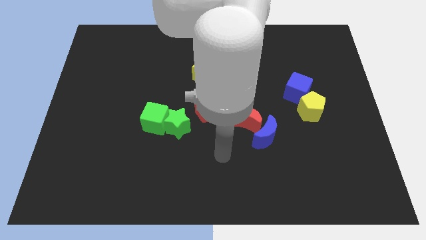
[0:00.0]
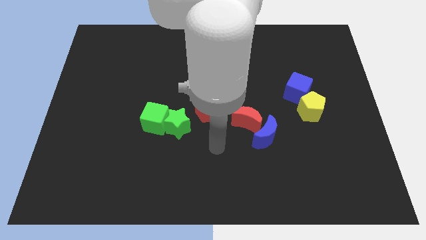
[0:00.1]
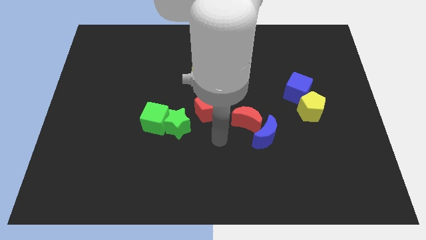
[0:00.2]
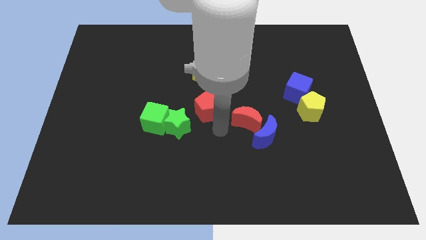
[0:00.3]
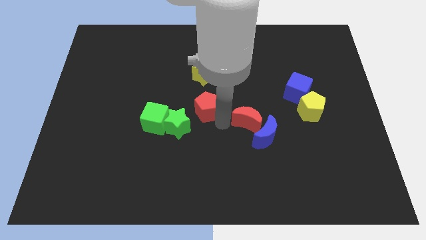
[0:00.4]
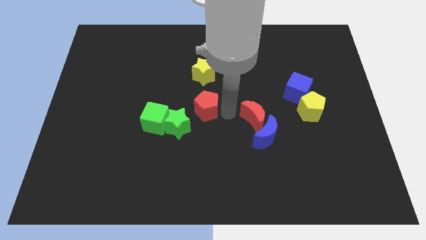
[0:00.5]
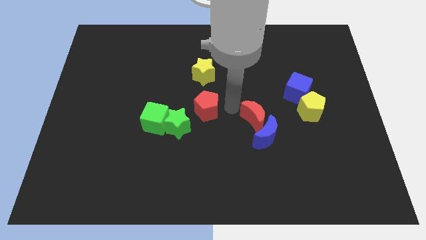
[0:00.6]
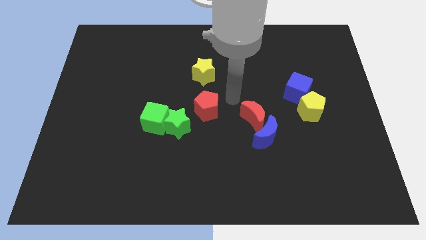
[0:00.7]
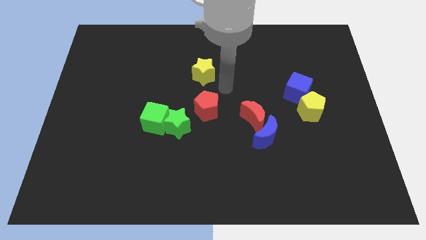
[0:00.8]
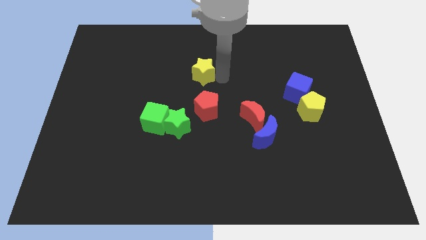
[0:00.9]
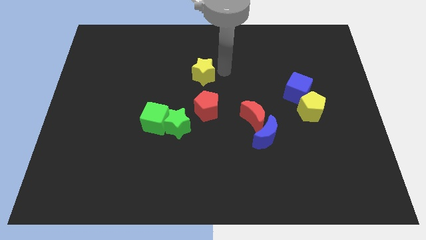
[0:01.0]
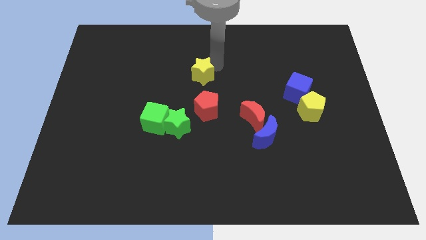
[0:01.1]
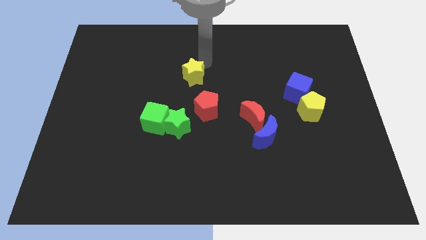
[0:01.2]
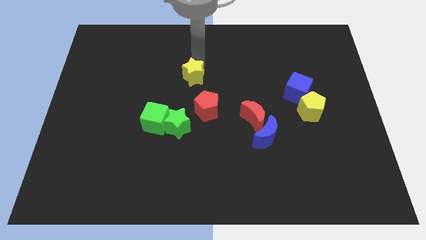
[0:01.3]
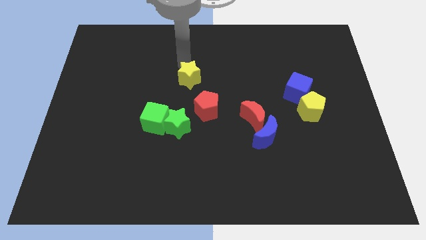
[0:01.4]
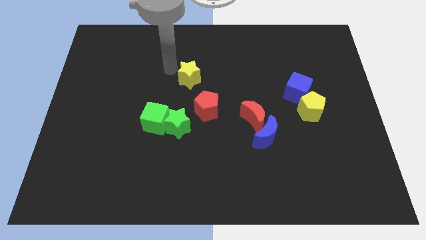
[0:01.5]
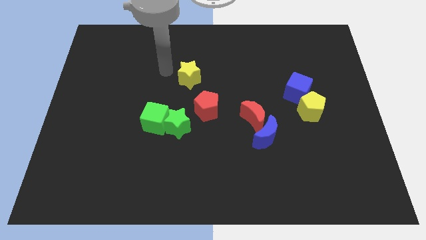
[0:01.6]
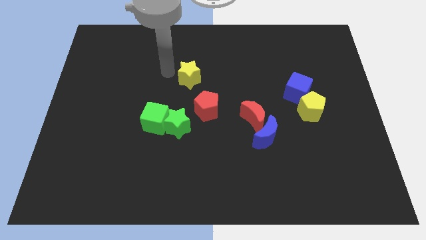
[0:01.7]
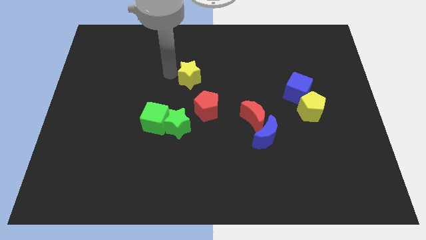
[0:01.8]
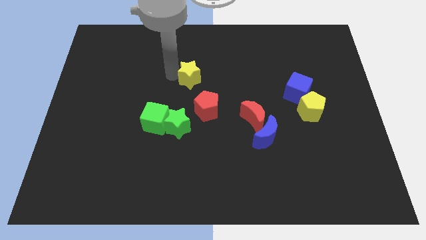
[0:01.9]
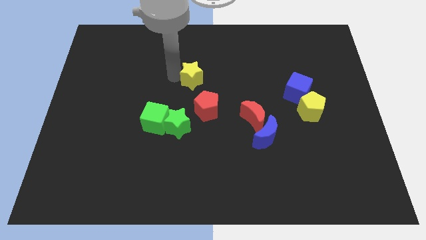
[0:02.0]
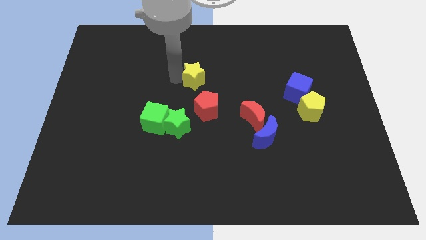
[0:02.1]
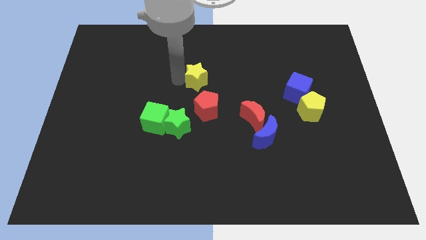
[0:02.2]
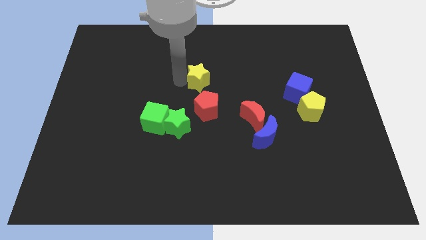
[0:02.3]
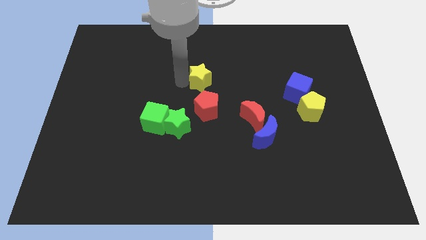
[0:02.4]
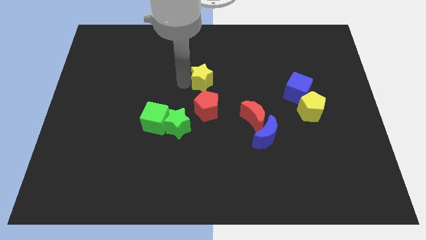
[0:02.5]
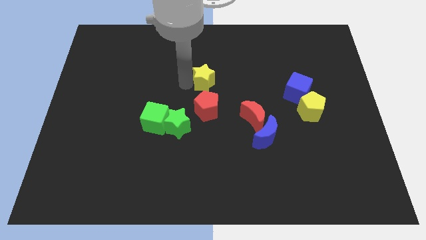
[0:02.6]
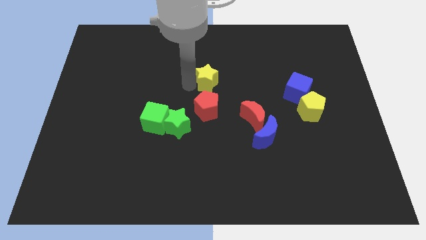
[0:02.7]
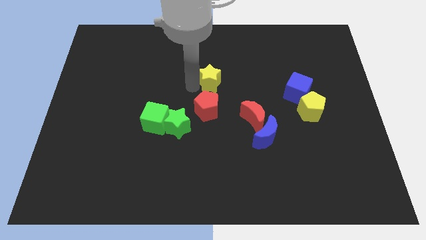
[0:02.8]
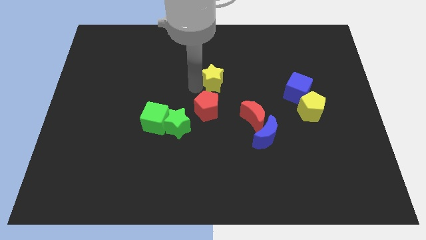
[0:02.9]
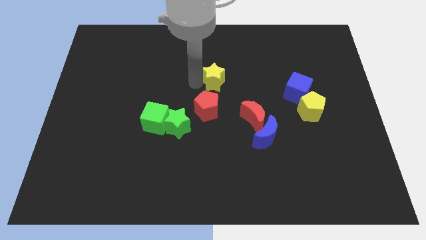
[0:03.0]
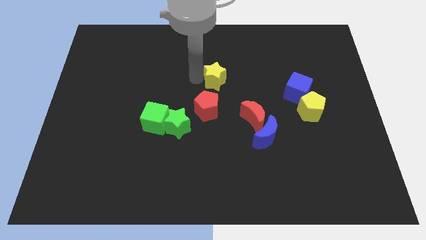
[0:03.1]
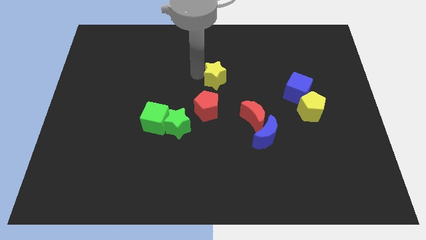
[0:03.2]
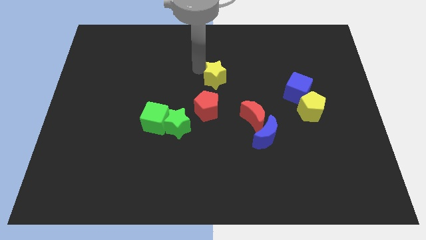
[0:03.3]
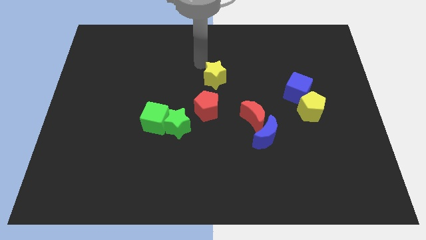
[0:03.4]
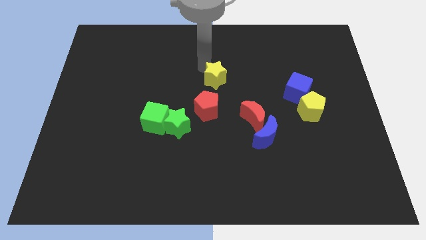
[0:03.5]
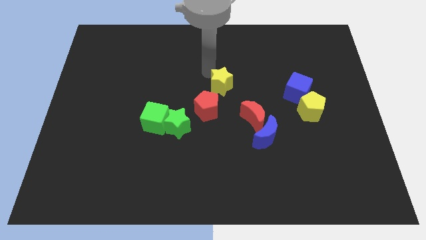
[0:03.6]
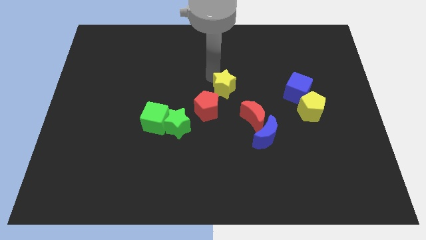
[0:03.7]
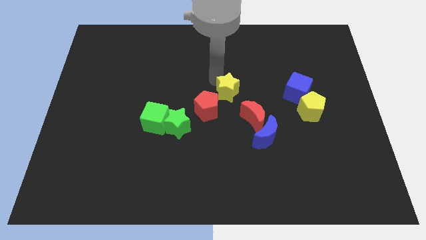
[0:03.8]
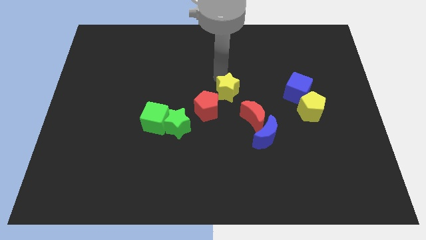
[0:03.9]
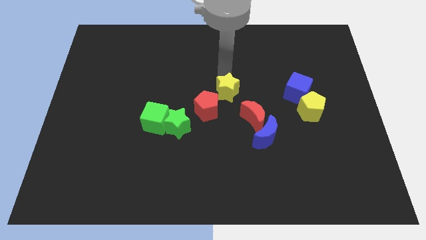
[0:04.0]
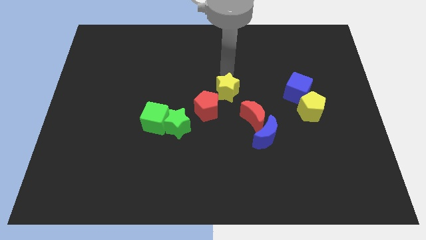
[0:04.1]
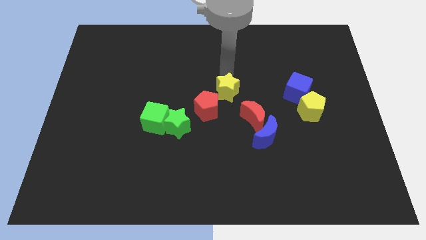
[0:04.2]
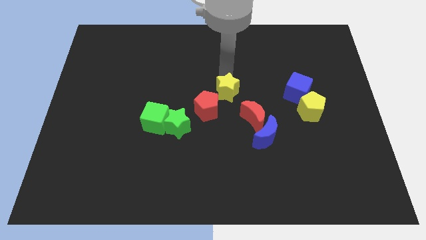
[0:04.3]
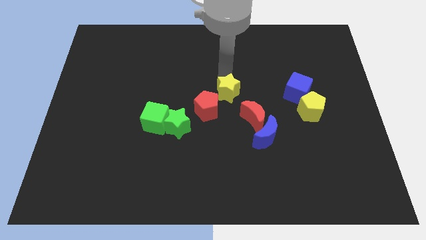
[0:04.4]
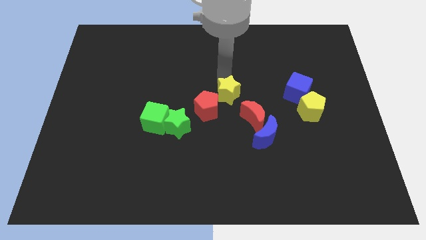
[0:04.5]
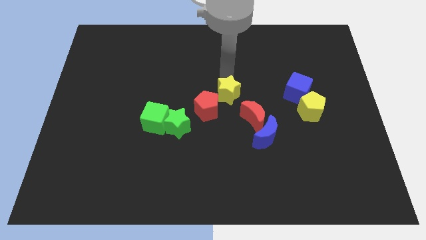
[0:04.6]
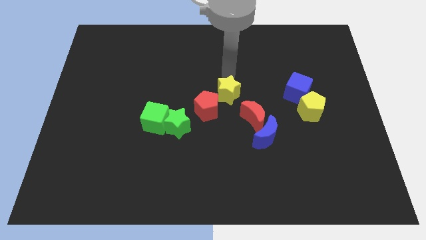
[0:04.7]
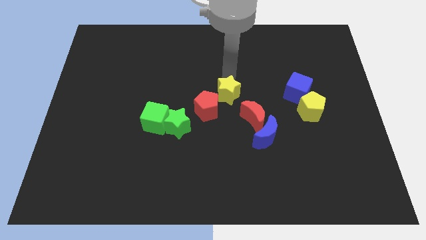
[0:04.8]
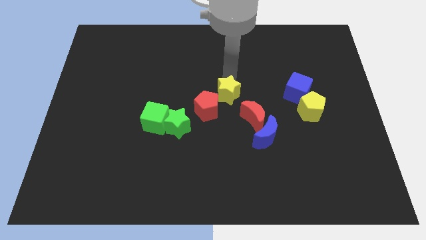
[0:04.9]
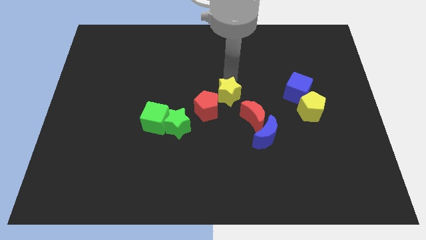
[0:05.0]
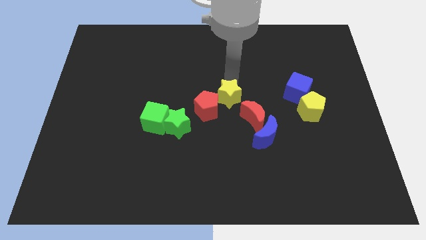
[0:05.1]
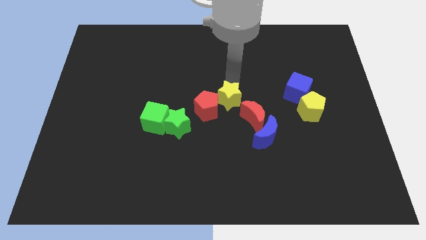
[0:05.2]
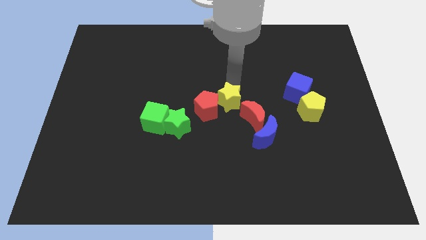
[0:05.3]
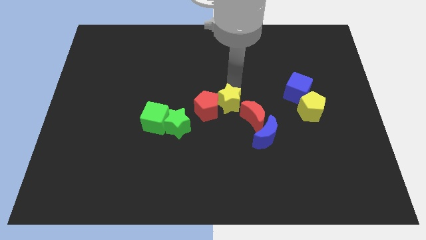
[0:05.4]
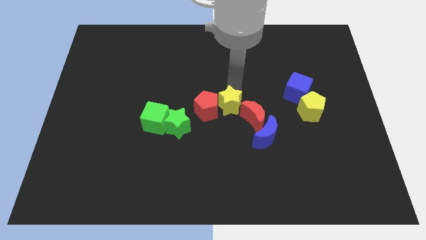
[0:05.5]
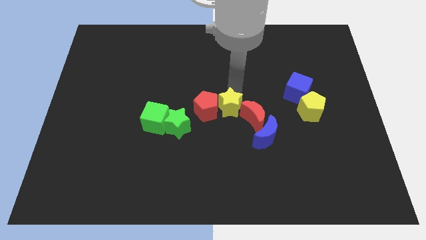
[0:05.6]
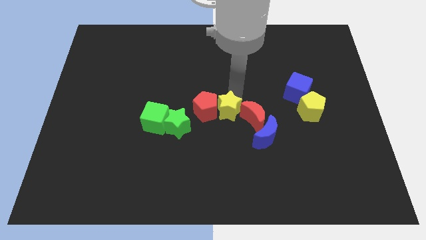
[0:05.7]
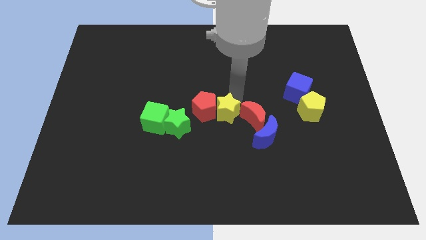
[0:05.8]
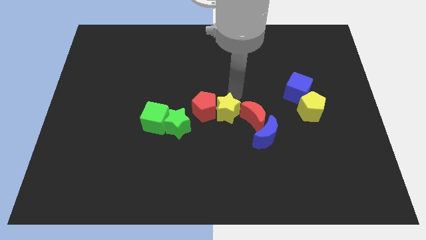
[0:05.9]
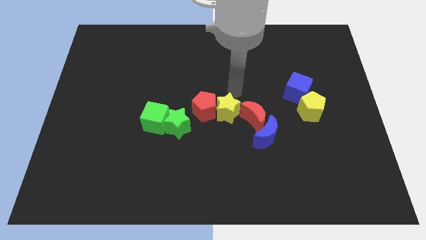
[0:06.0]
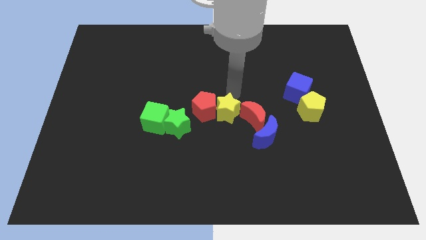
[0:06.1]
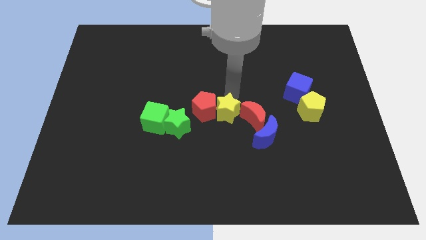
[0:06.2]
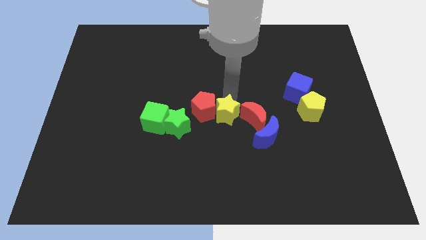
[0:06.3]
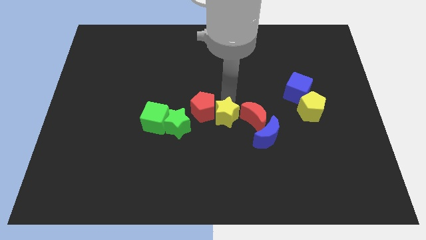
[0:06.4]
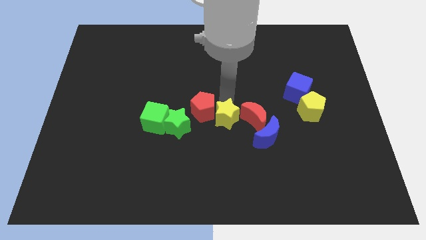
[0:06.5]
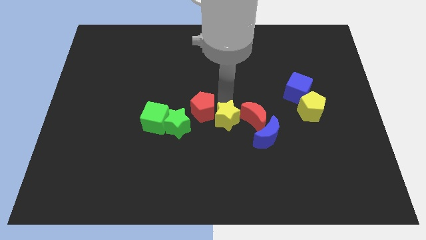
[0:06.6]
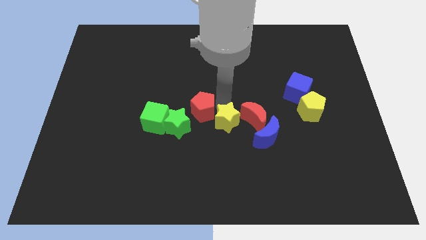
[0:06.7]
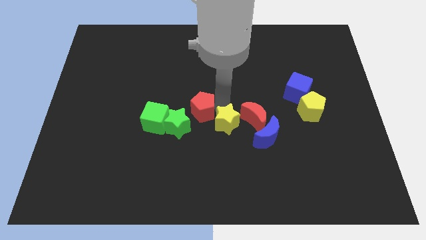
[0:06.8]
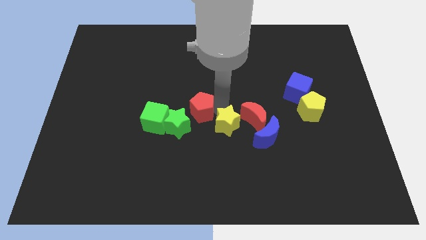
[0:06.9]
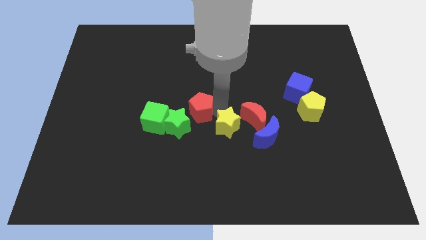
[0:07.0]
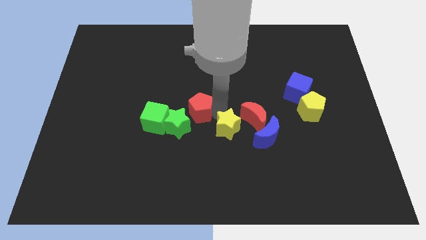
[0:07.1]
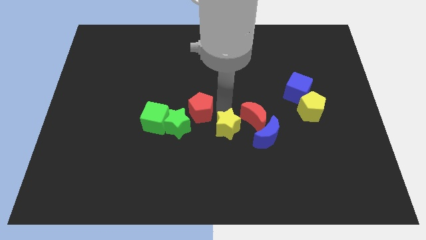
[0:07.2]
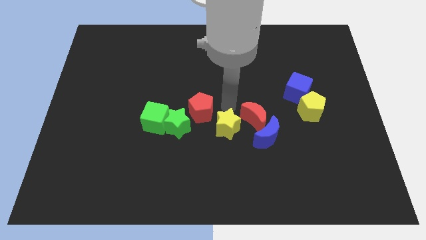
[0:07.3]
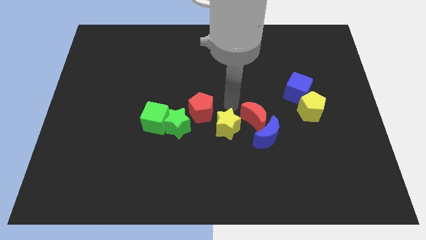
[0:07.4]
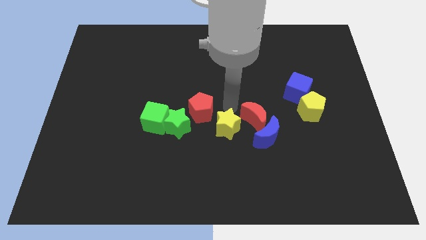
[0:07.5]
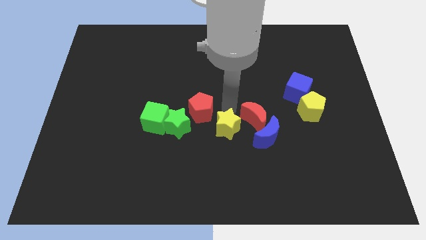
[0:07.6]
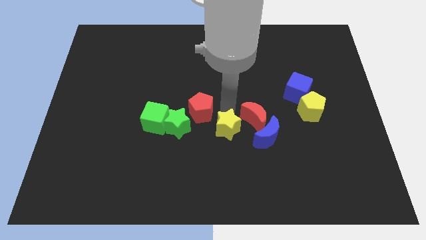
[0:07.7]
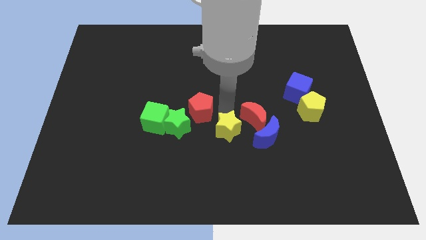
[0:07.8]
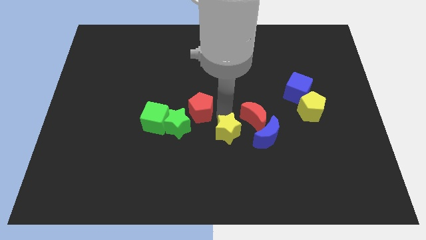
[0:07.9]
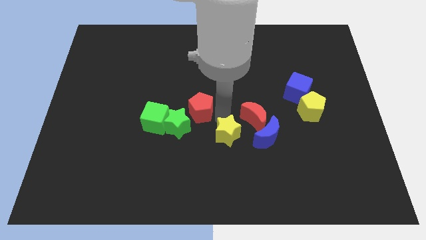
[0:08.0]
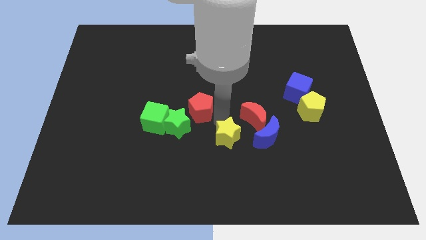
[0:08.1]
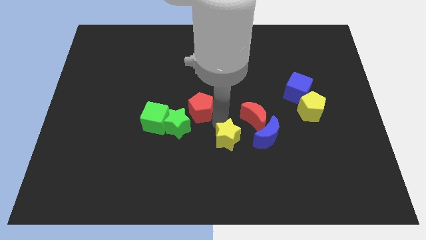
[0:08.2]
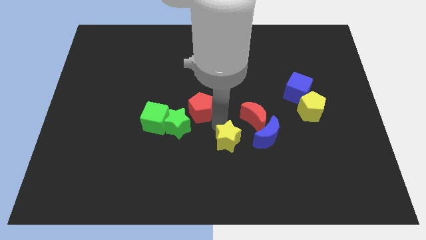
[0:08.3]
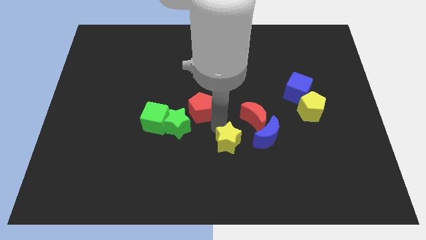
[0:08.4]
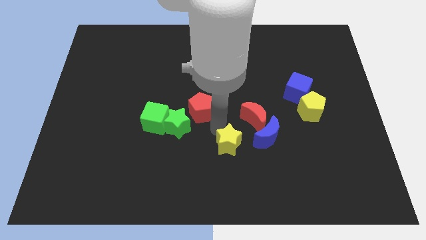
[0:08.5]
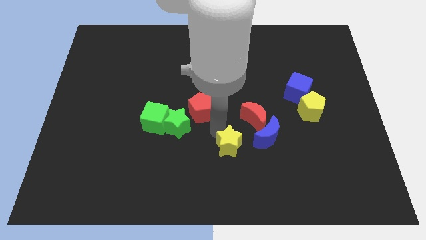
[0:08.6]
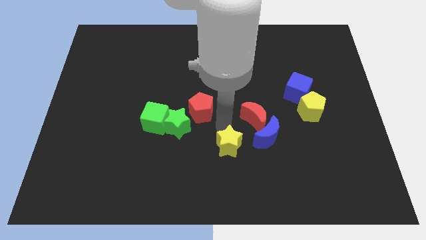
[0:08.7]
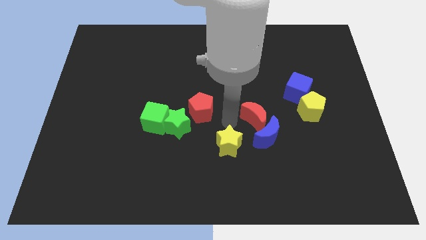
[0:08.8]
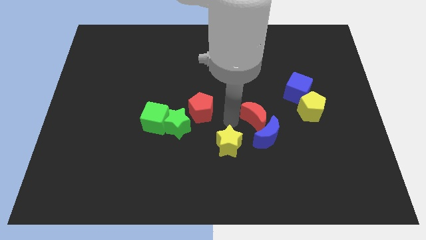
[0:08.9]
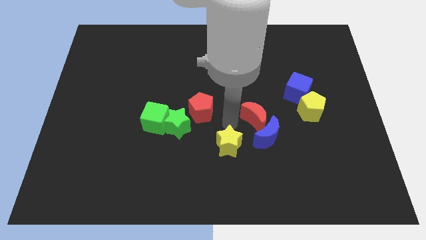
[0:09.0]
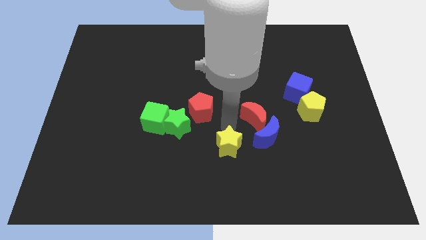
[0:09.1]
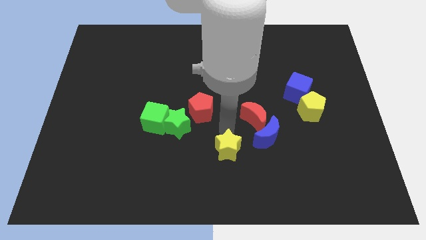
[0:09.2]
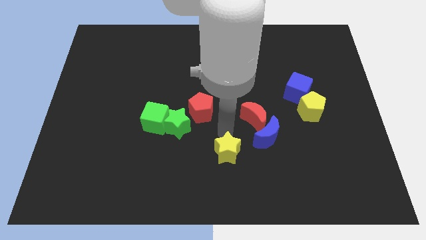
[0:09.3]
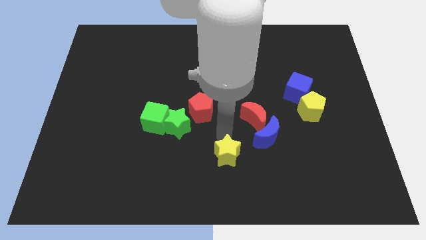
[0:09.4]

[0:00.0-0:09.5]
put the yellow star to the bottom
